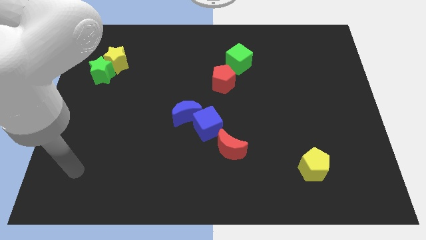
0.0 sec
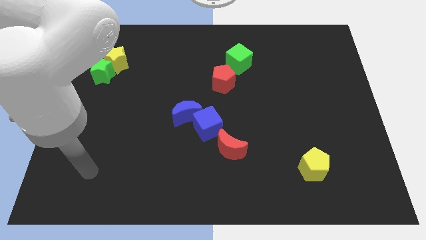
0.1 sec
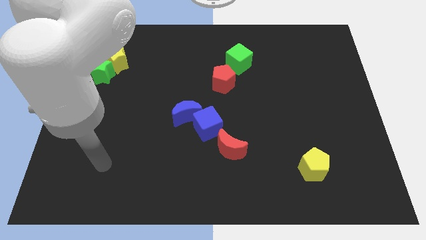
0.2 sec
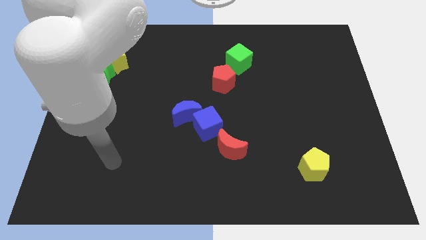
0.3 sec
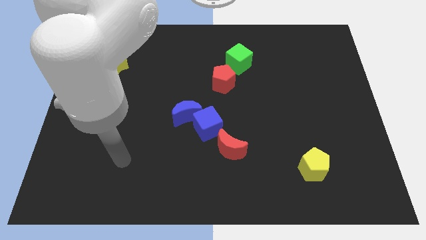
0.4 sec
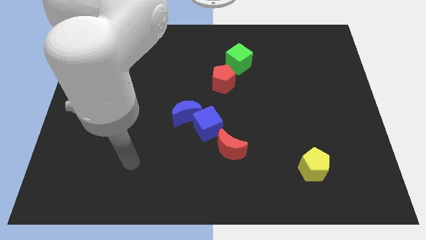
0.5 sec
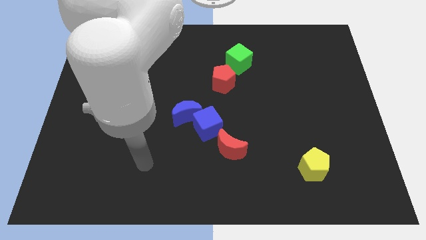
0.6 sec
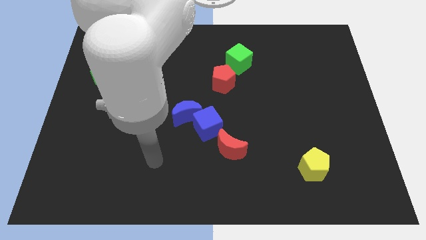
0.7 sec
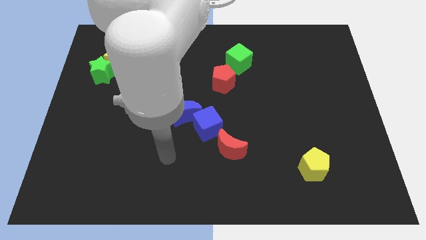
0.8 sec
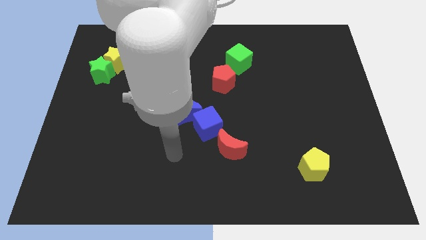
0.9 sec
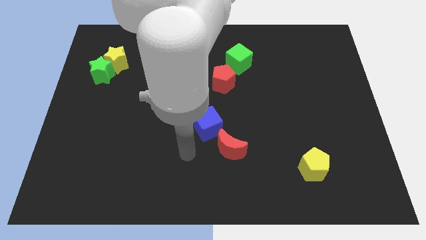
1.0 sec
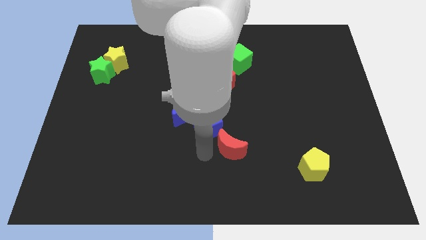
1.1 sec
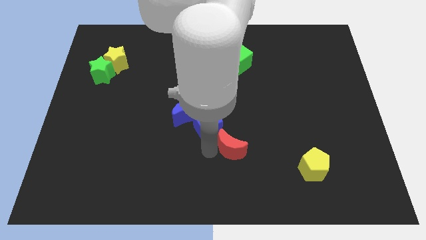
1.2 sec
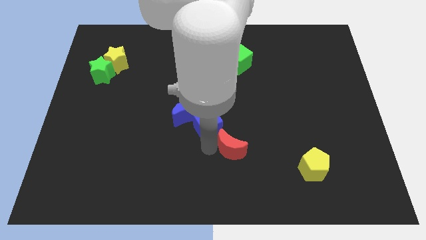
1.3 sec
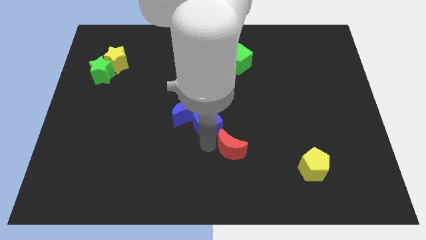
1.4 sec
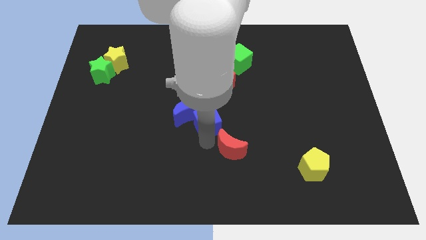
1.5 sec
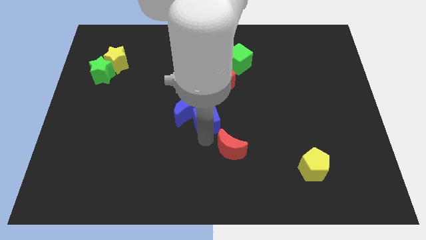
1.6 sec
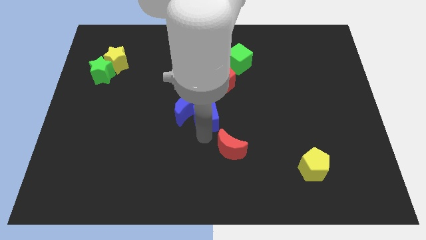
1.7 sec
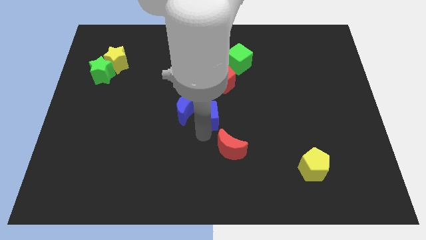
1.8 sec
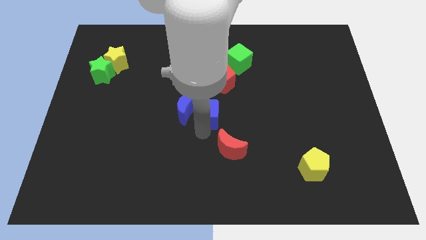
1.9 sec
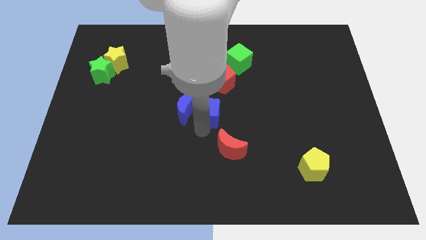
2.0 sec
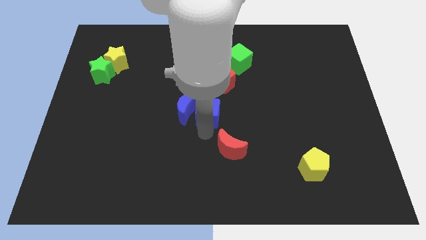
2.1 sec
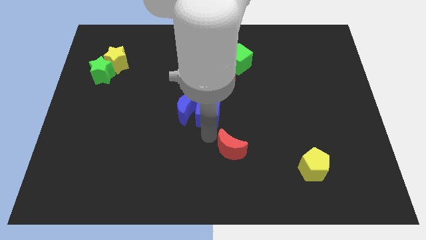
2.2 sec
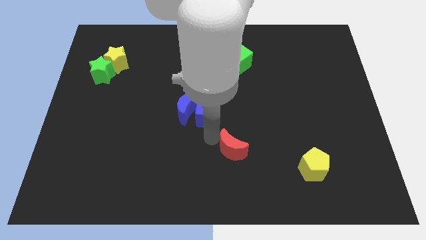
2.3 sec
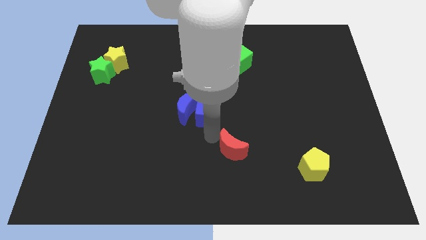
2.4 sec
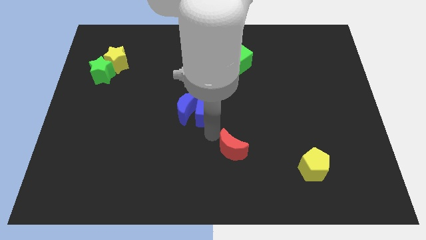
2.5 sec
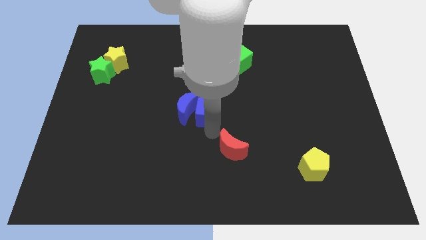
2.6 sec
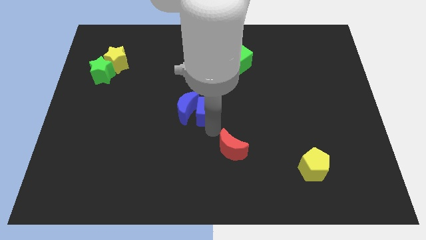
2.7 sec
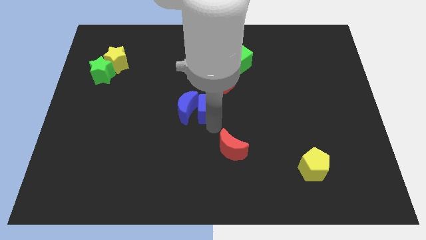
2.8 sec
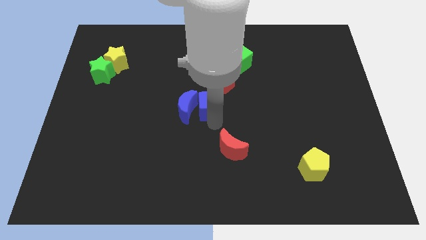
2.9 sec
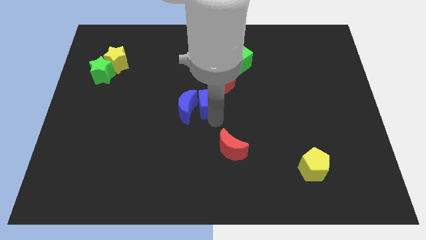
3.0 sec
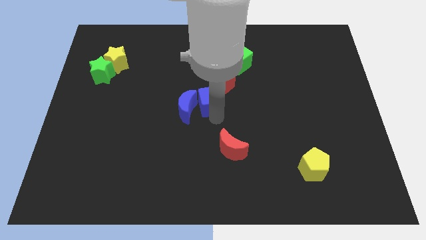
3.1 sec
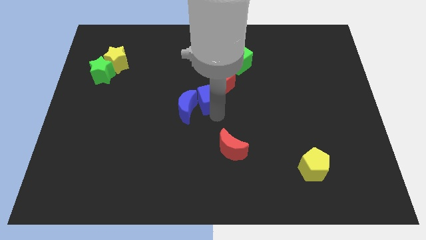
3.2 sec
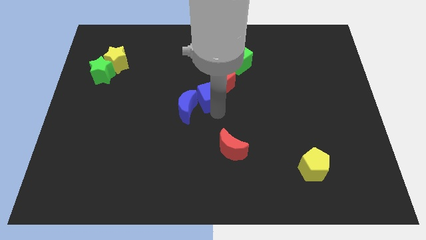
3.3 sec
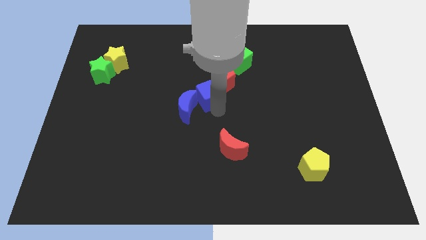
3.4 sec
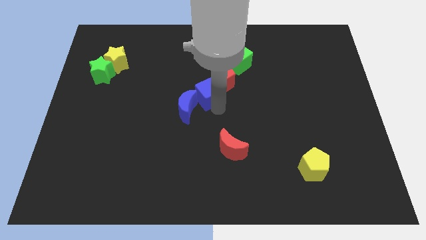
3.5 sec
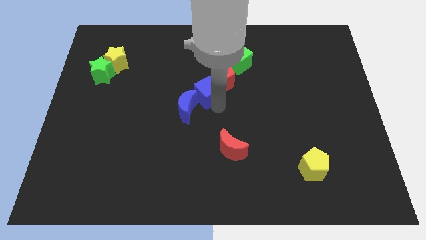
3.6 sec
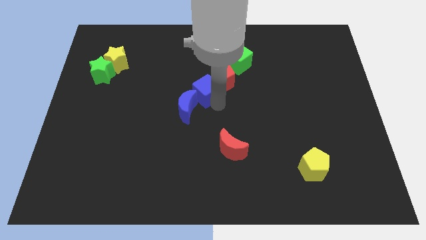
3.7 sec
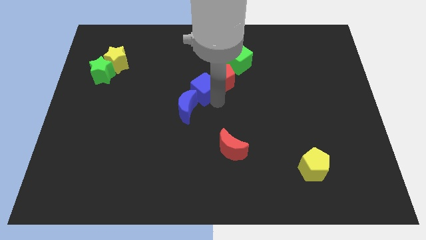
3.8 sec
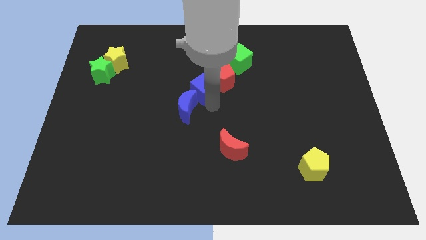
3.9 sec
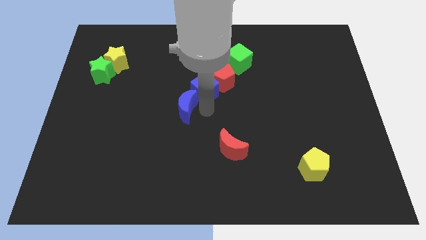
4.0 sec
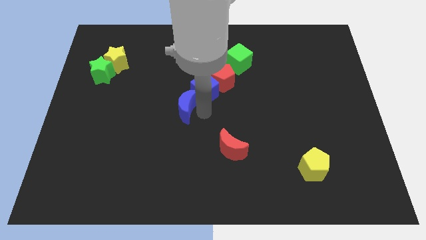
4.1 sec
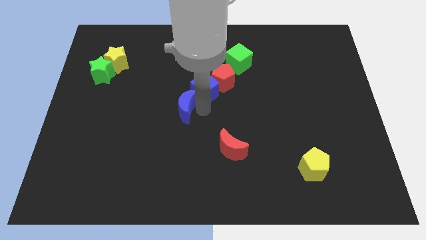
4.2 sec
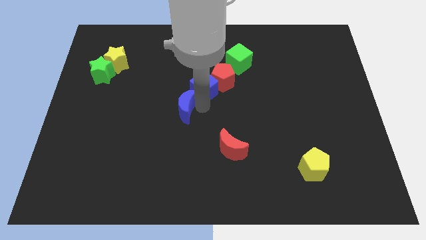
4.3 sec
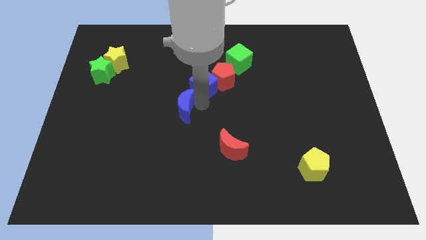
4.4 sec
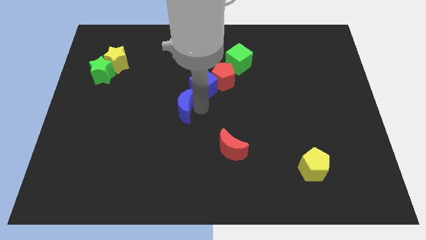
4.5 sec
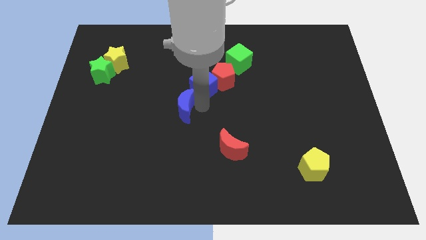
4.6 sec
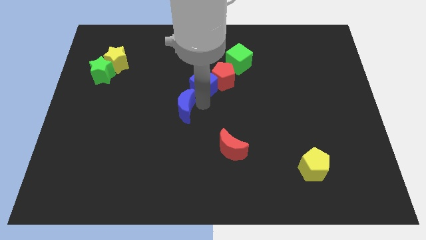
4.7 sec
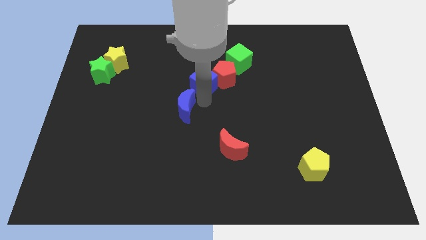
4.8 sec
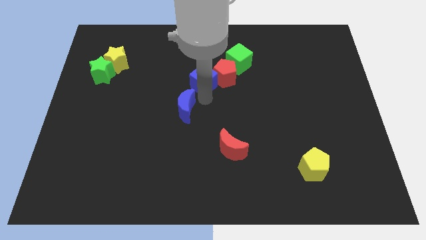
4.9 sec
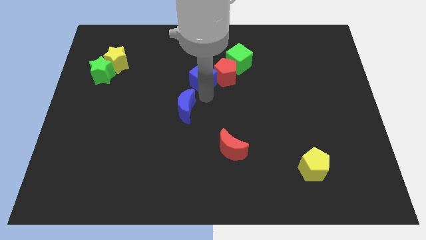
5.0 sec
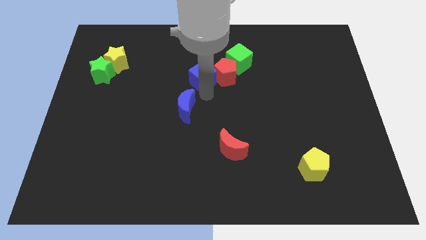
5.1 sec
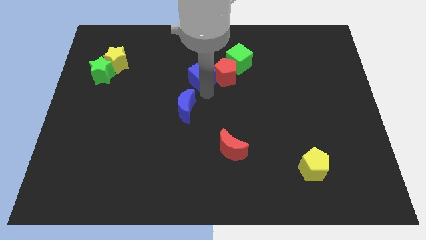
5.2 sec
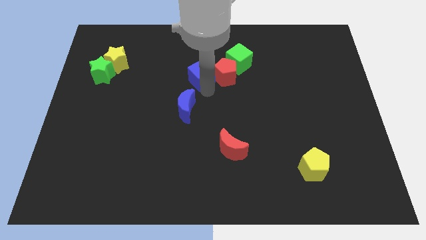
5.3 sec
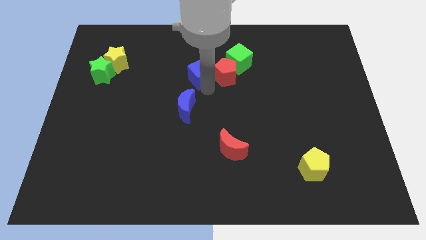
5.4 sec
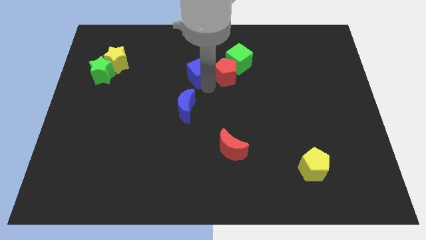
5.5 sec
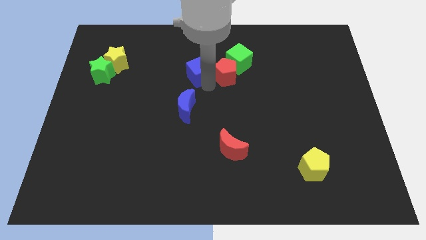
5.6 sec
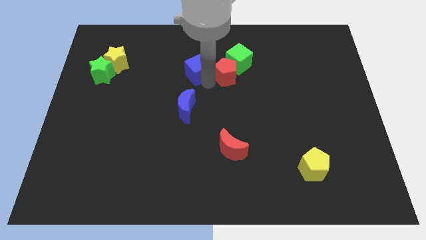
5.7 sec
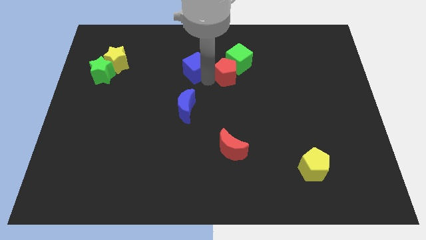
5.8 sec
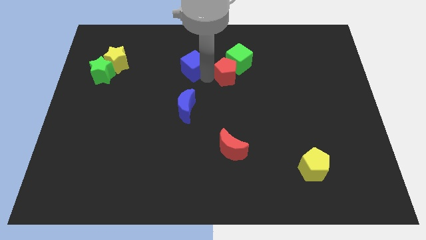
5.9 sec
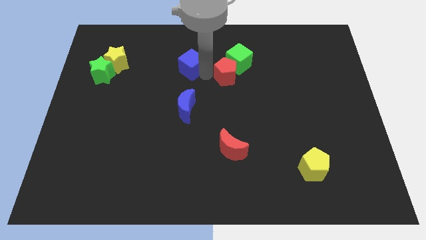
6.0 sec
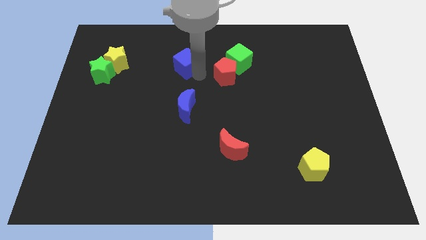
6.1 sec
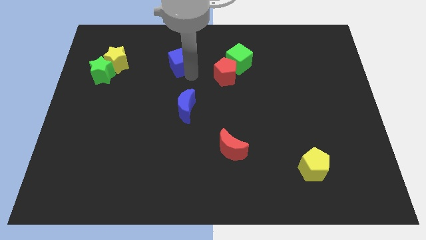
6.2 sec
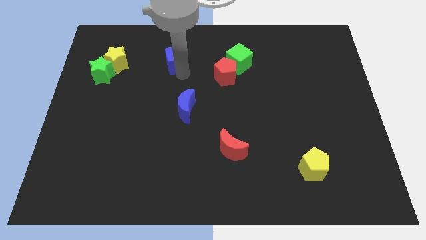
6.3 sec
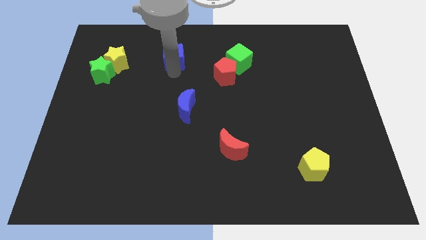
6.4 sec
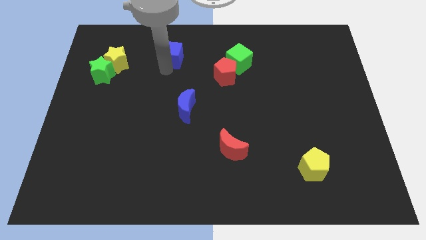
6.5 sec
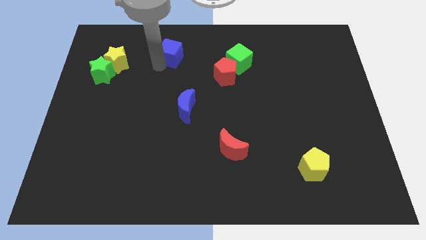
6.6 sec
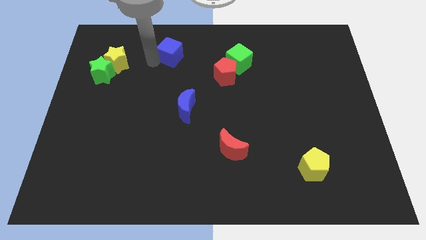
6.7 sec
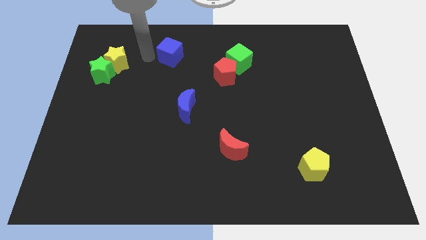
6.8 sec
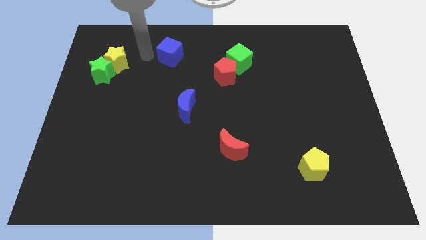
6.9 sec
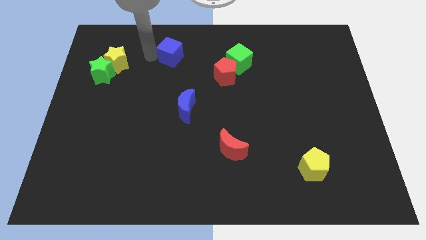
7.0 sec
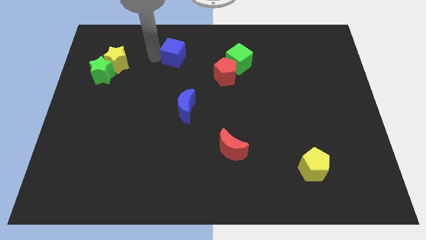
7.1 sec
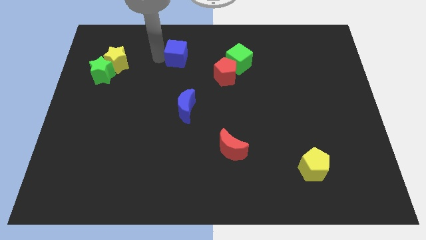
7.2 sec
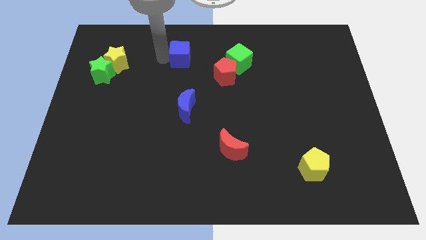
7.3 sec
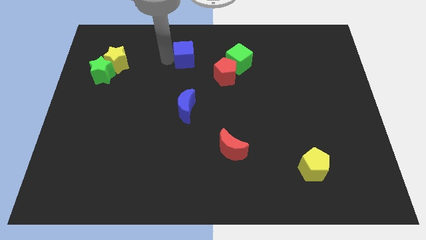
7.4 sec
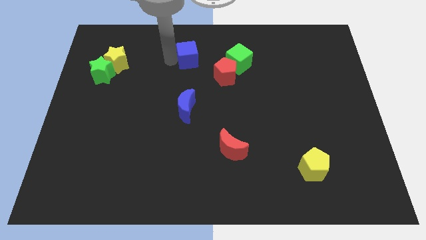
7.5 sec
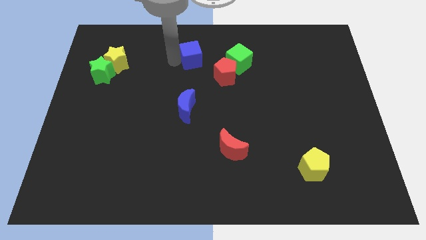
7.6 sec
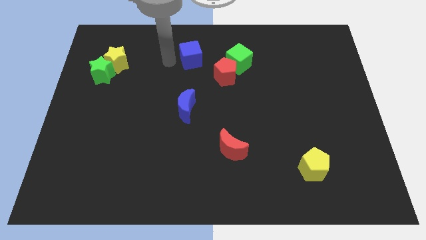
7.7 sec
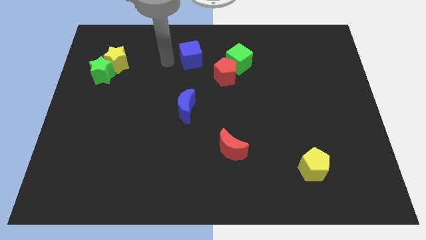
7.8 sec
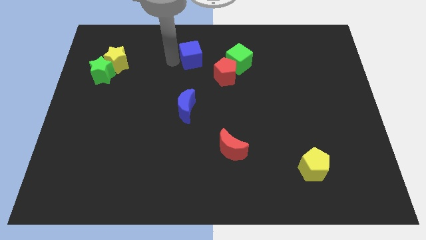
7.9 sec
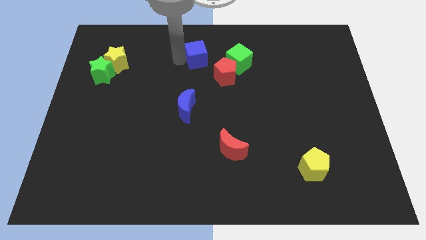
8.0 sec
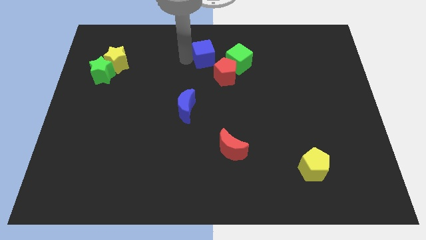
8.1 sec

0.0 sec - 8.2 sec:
put the blue cube to the top
